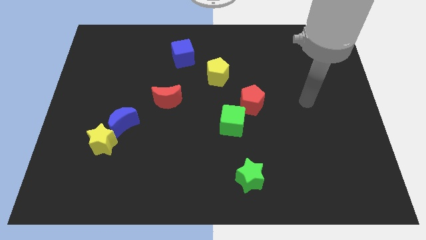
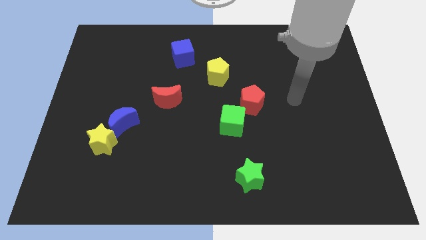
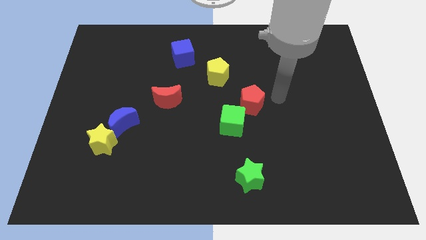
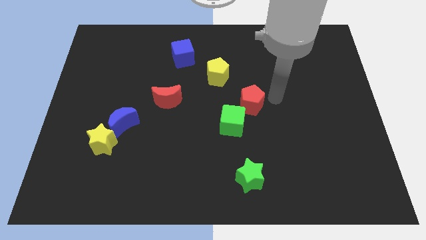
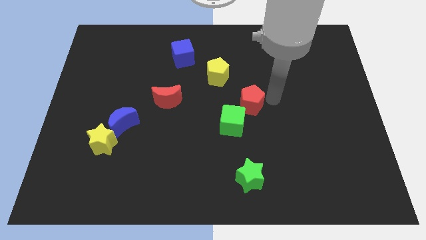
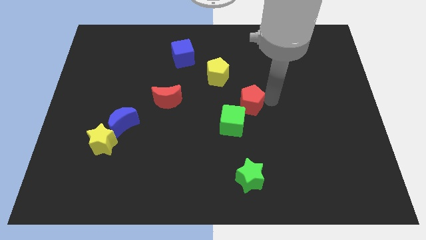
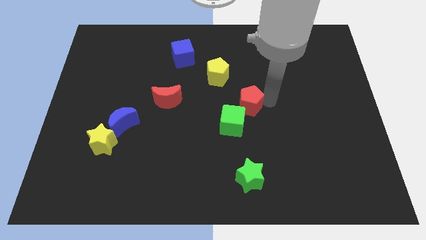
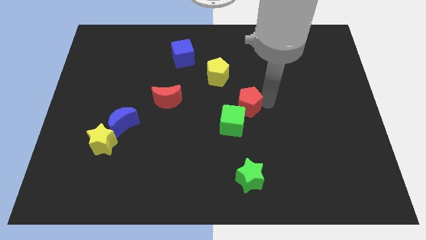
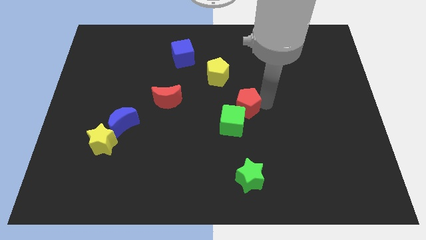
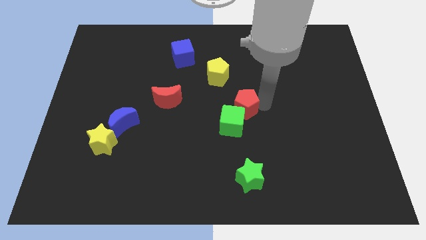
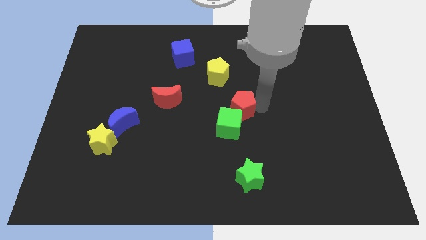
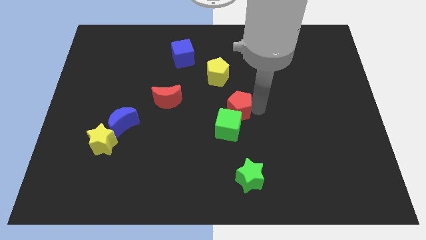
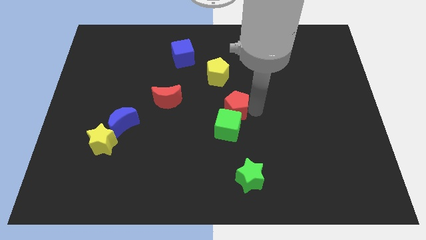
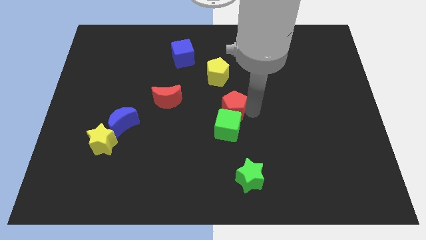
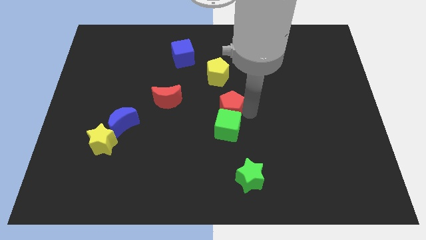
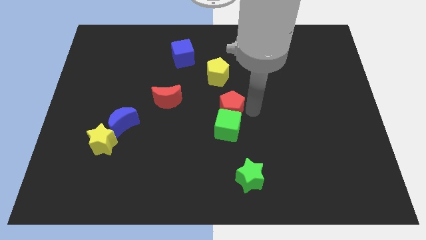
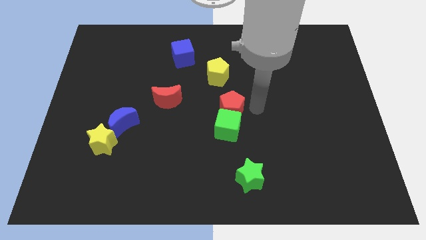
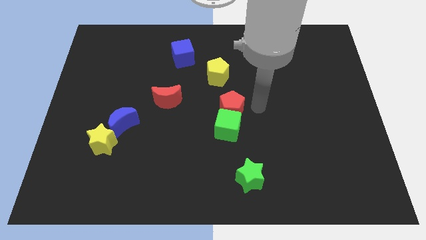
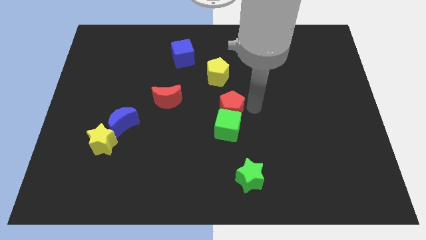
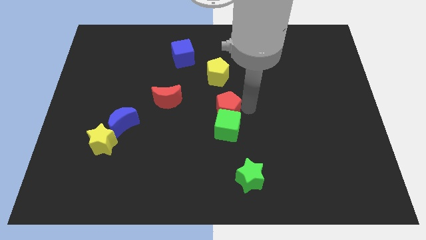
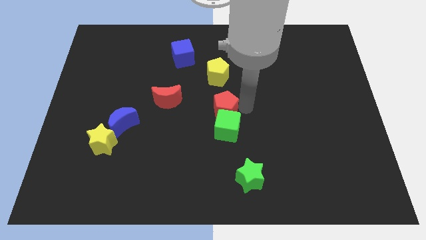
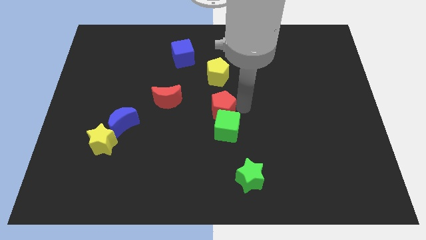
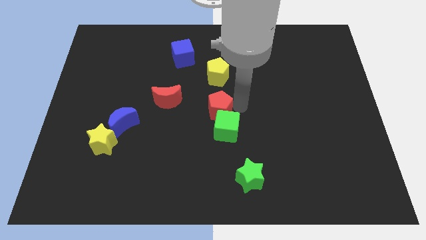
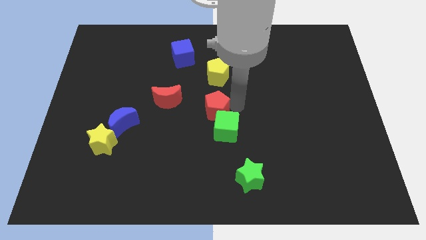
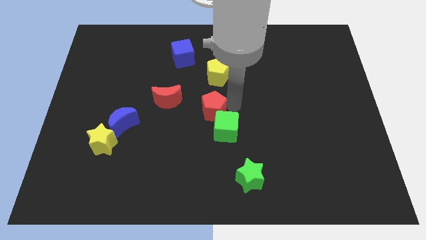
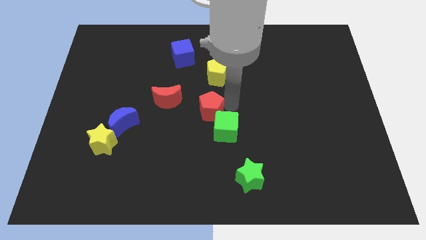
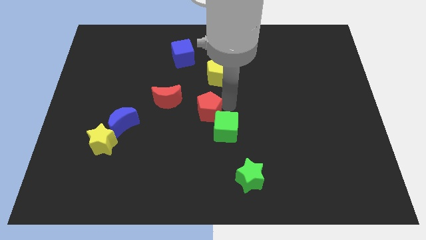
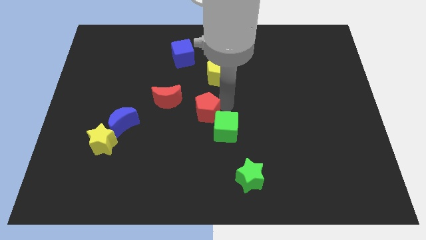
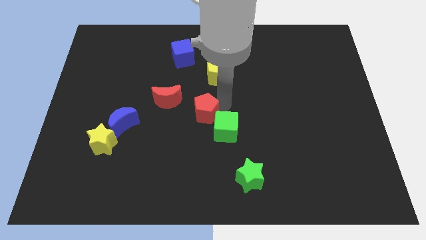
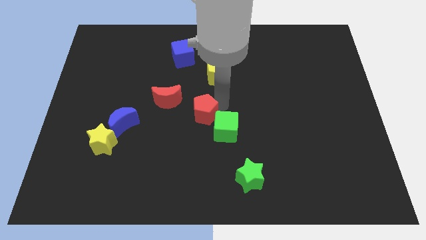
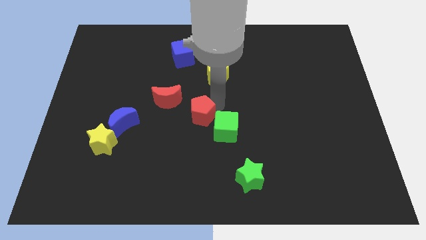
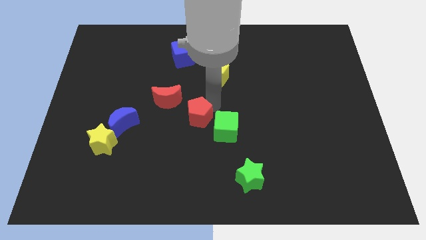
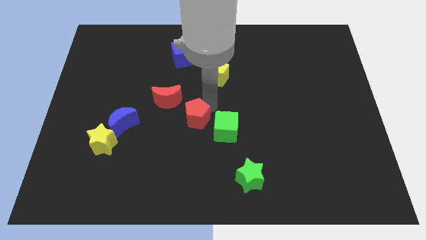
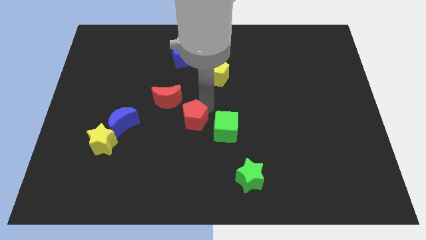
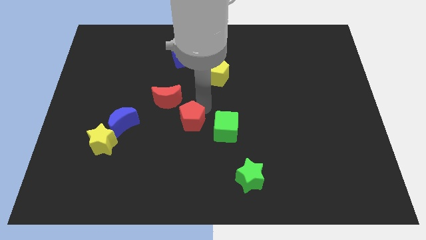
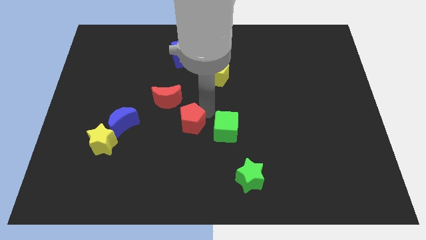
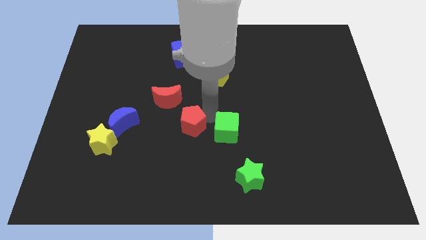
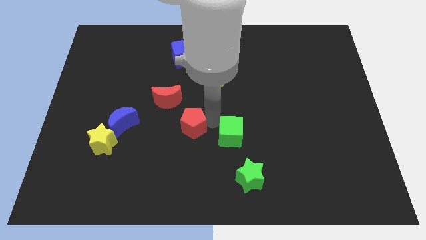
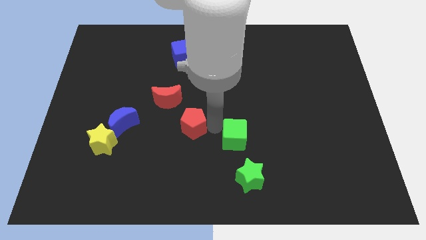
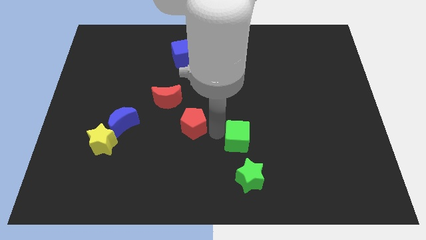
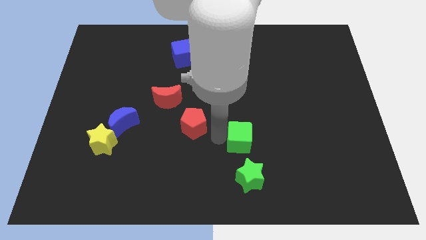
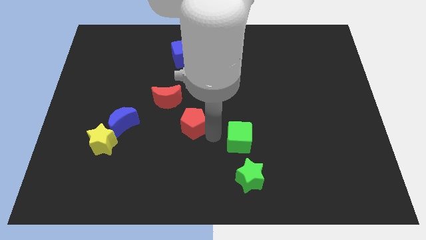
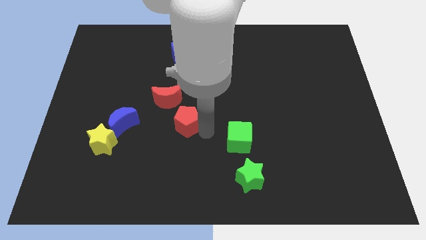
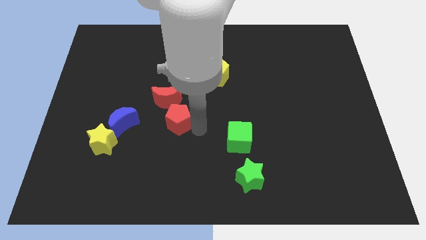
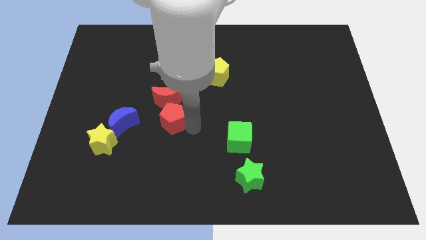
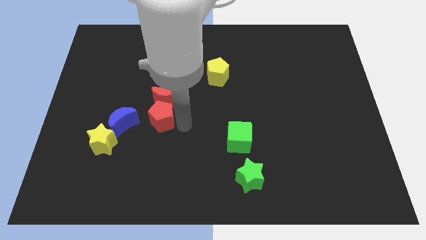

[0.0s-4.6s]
slide the red pentagon to the left

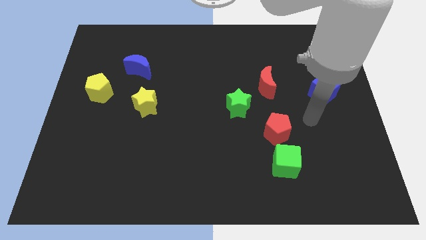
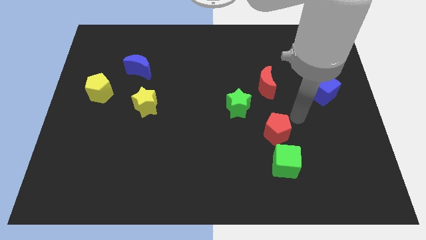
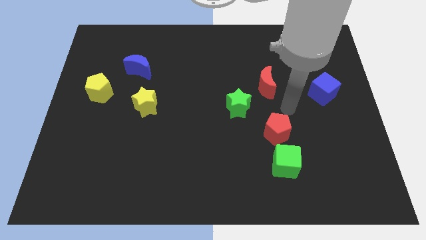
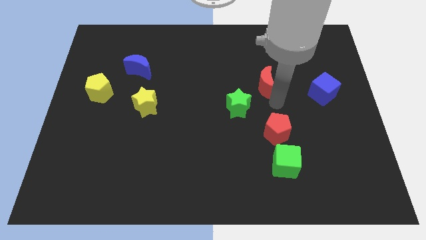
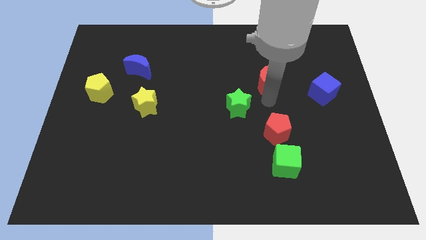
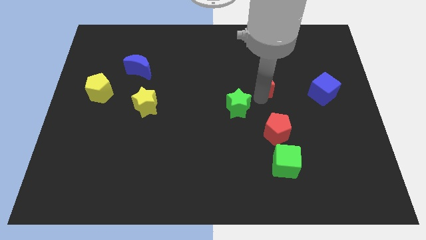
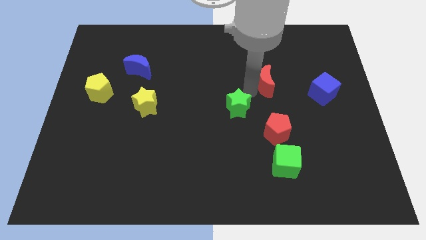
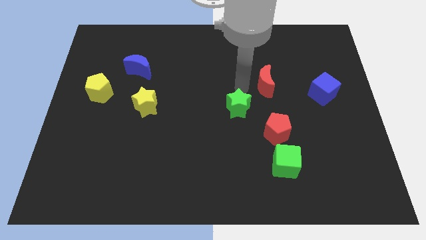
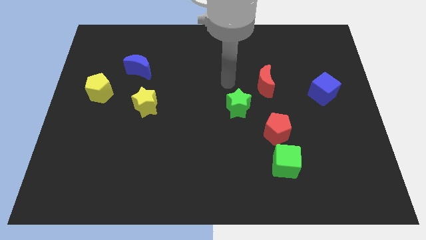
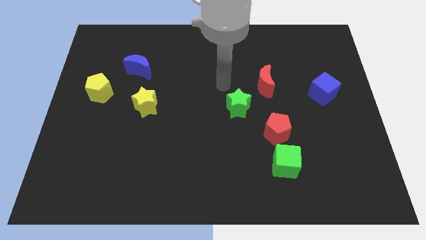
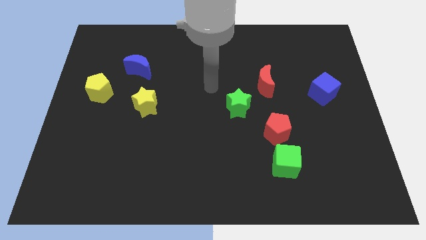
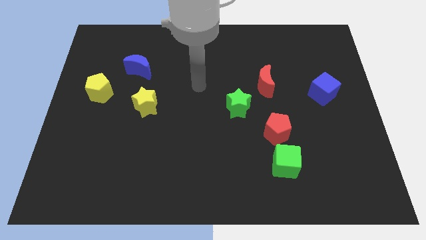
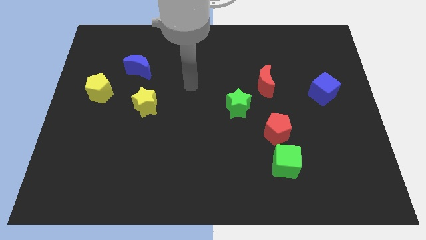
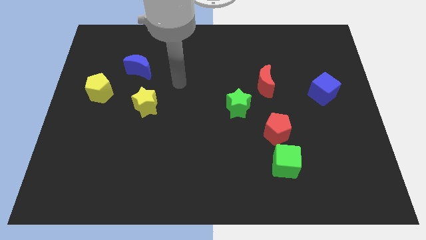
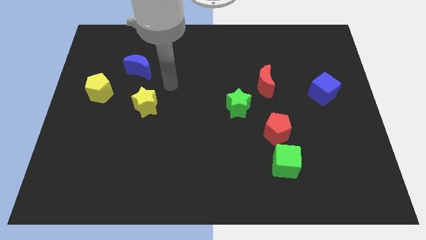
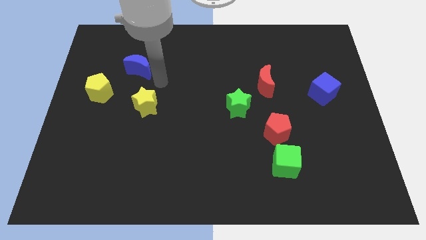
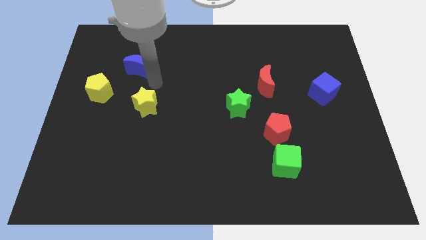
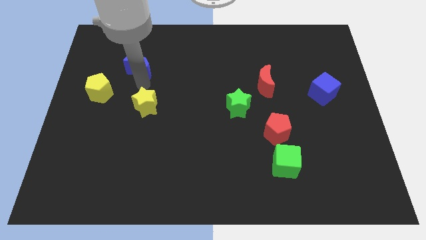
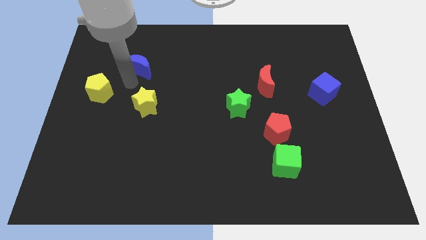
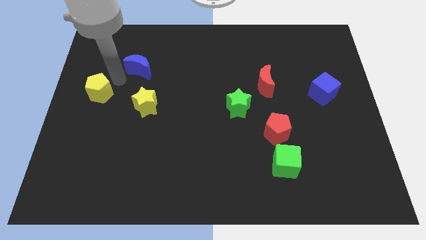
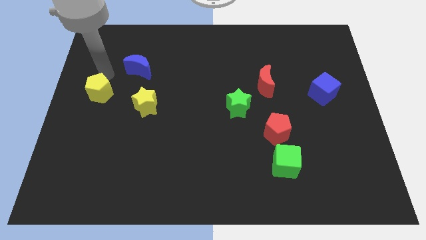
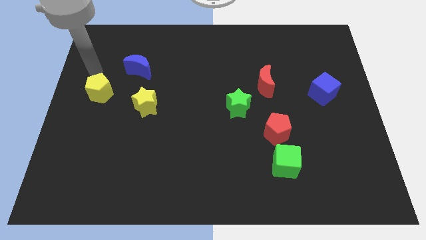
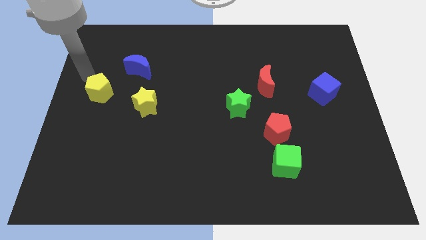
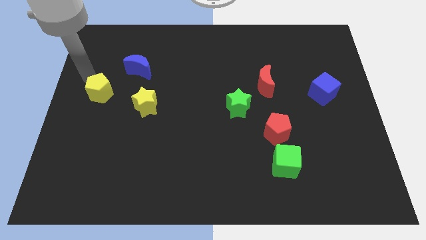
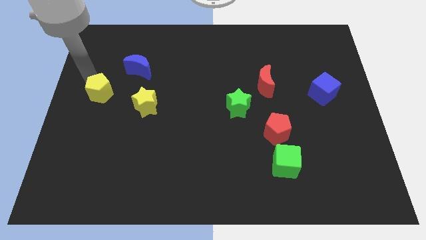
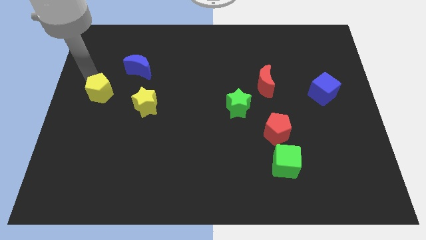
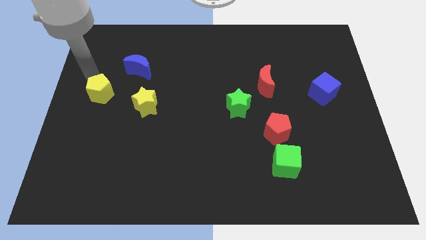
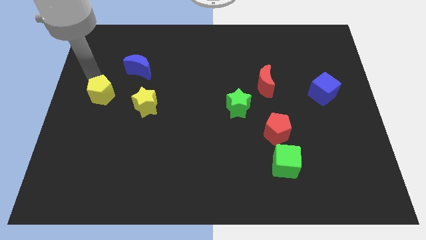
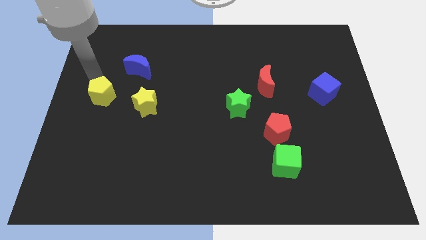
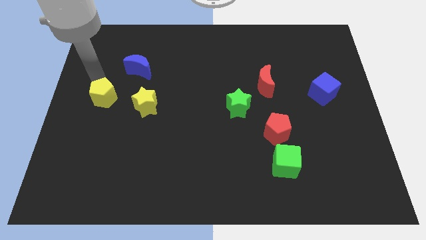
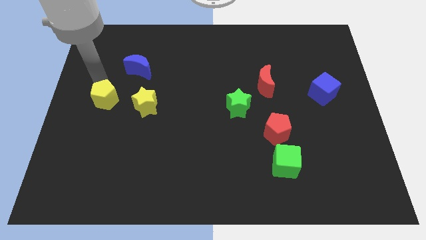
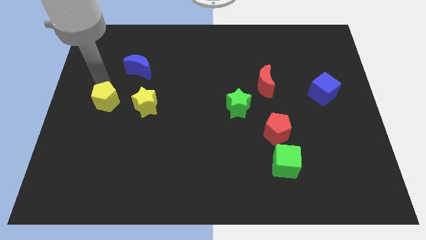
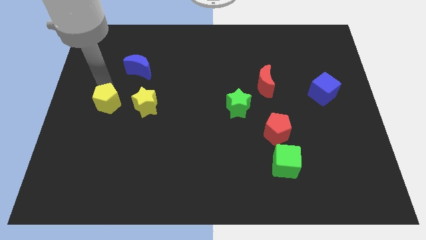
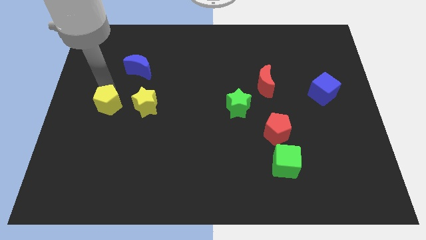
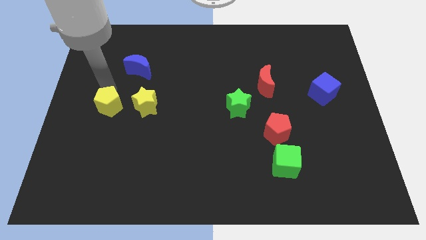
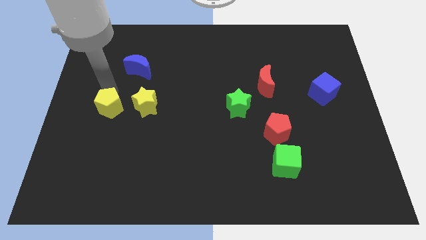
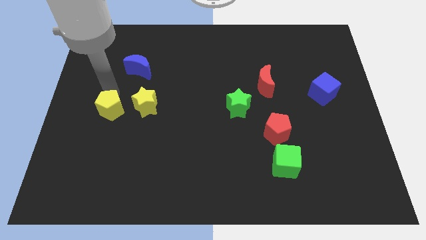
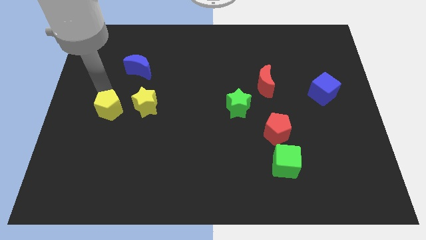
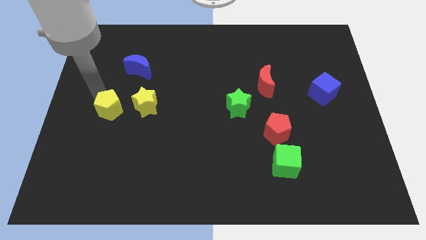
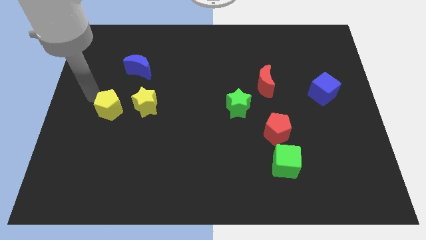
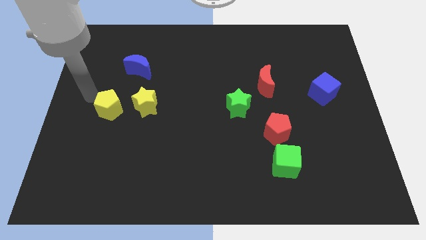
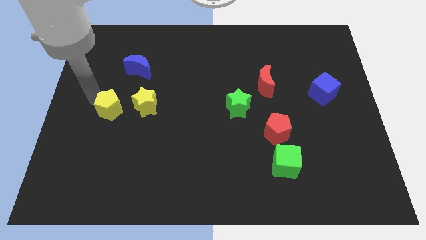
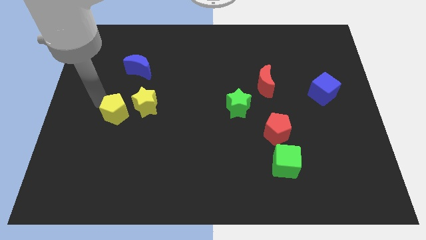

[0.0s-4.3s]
push the yellow pentagon a little diagonally downwards and right
